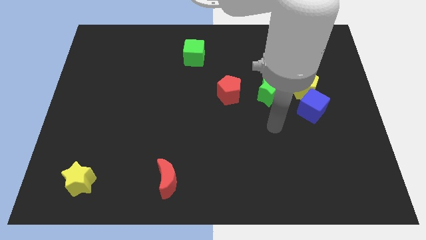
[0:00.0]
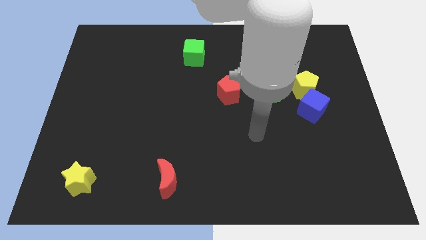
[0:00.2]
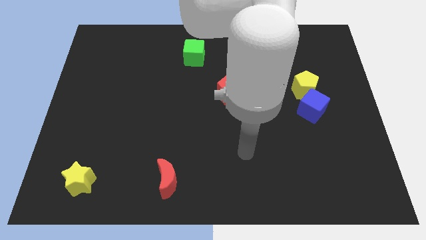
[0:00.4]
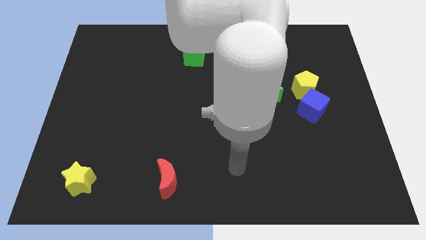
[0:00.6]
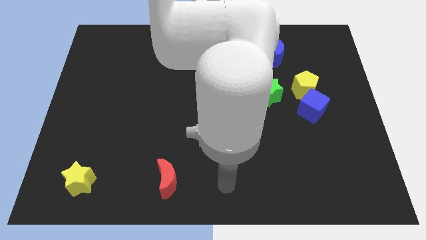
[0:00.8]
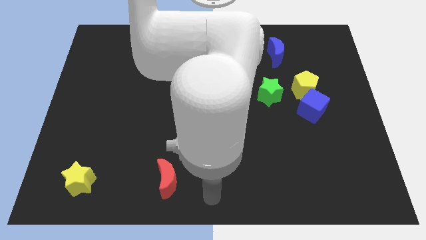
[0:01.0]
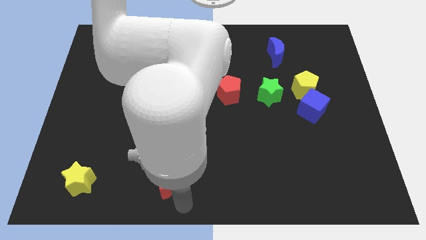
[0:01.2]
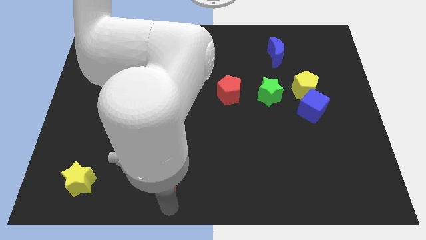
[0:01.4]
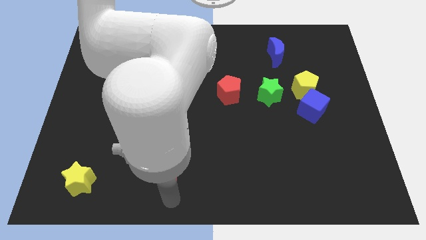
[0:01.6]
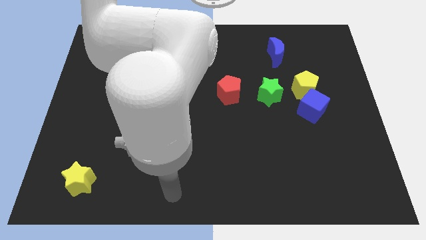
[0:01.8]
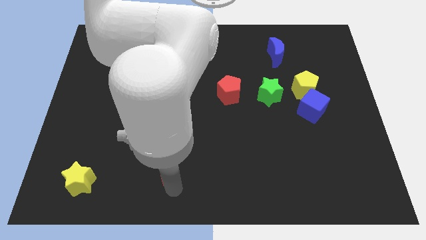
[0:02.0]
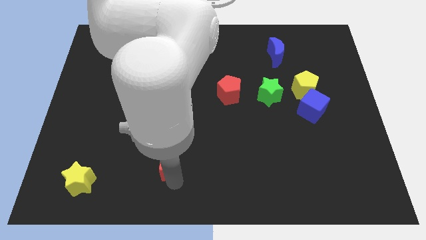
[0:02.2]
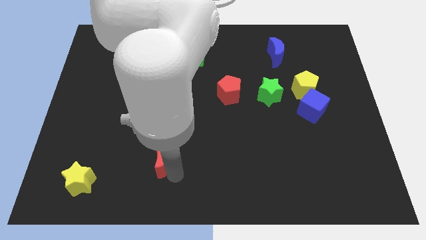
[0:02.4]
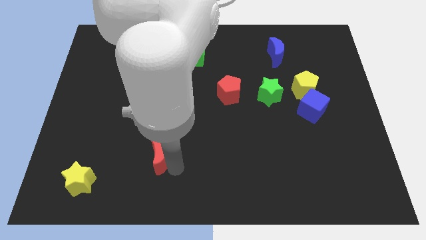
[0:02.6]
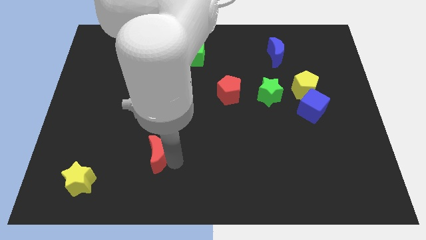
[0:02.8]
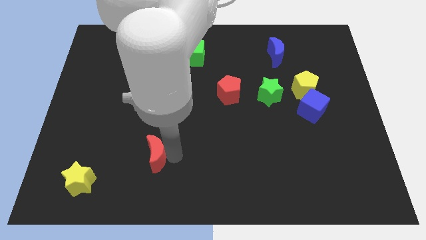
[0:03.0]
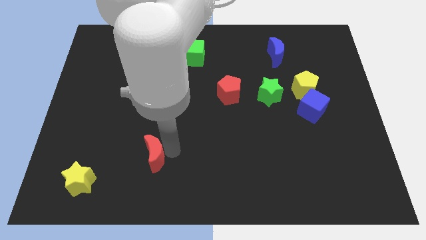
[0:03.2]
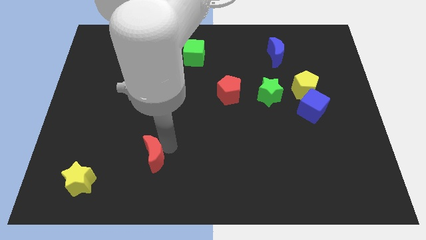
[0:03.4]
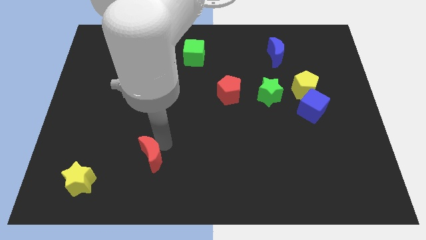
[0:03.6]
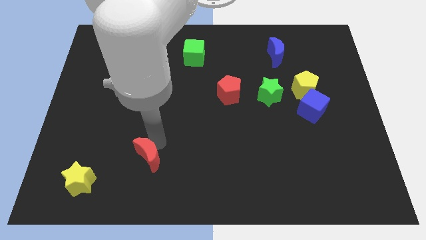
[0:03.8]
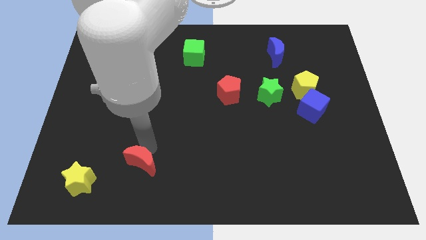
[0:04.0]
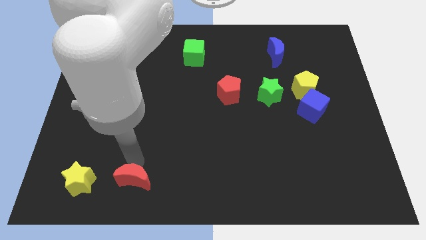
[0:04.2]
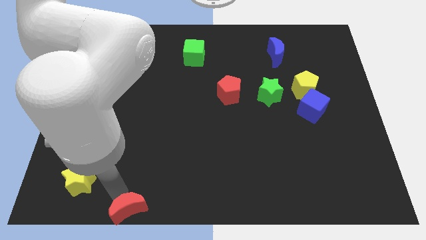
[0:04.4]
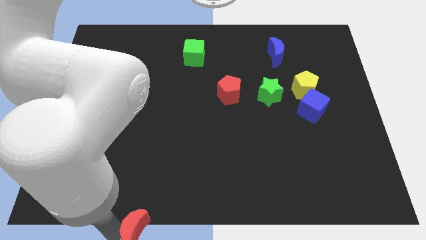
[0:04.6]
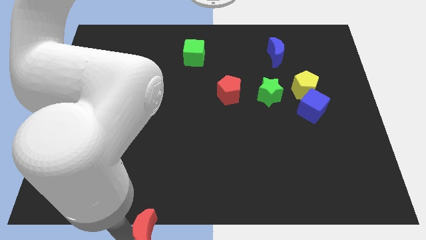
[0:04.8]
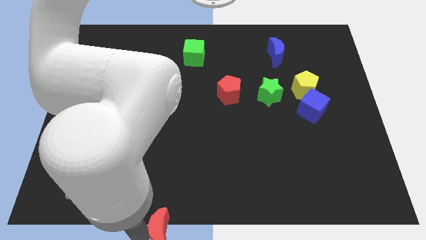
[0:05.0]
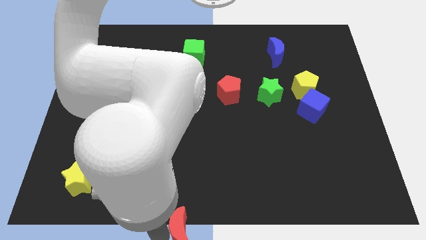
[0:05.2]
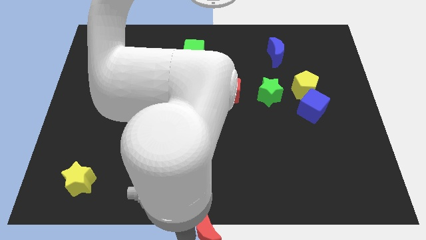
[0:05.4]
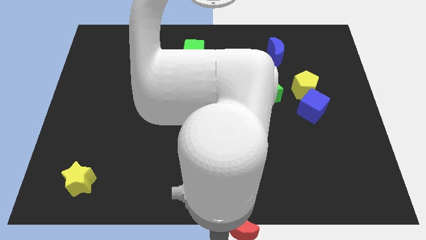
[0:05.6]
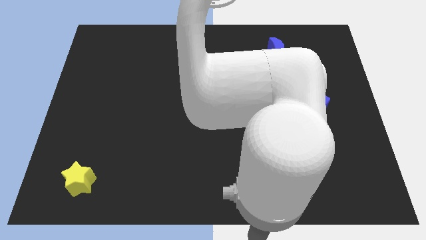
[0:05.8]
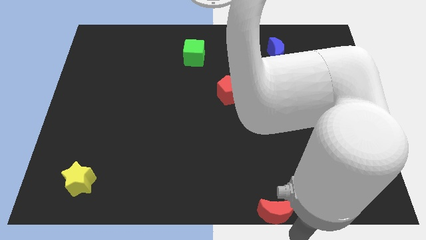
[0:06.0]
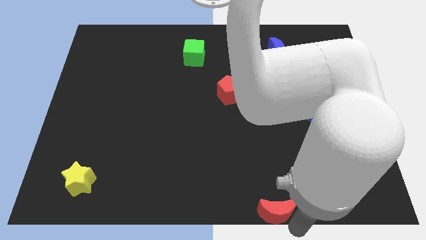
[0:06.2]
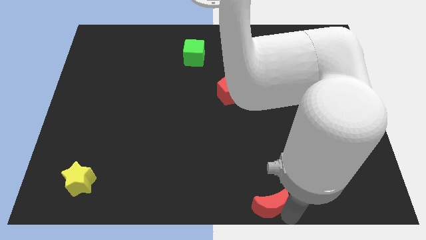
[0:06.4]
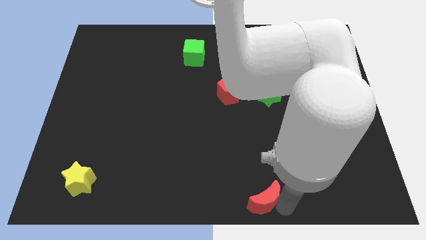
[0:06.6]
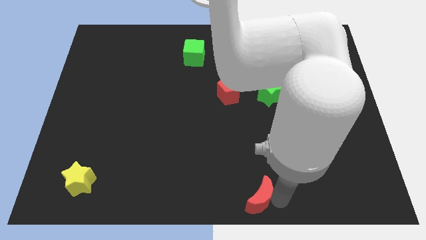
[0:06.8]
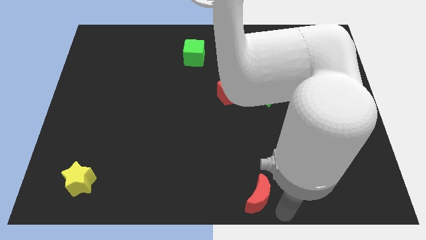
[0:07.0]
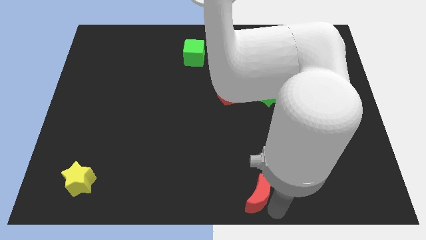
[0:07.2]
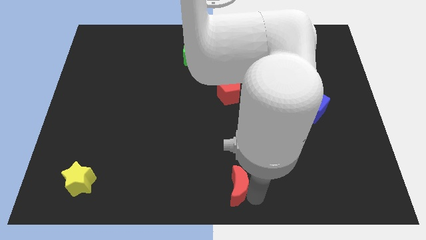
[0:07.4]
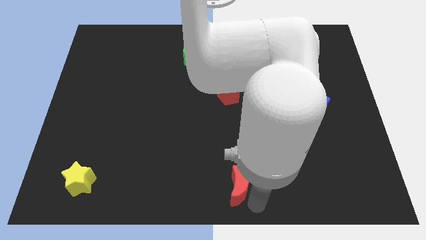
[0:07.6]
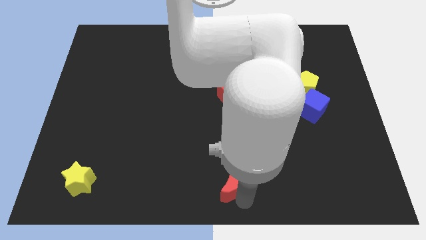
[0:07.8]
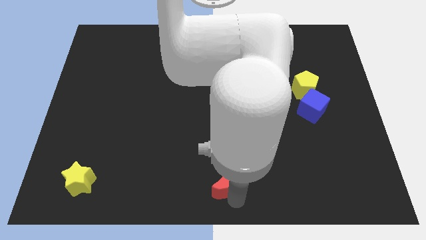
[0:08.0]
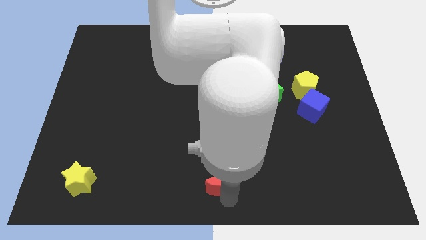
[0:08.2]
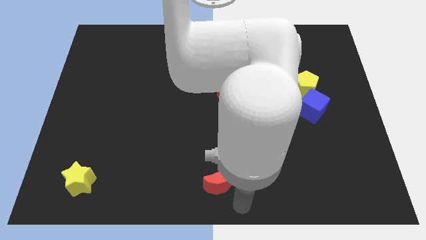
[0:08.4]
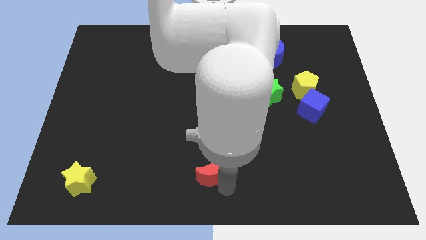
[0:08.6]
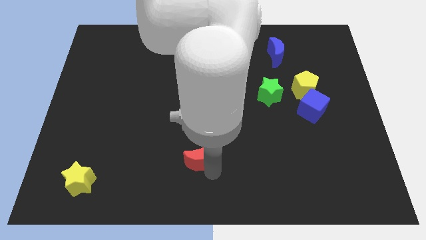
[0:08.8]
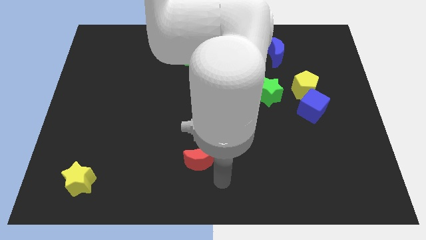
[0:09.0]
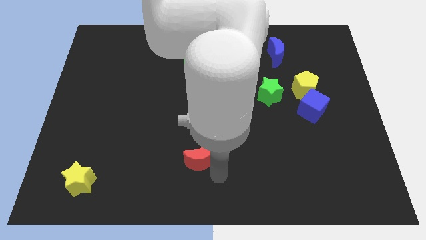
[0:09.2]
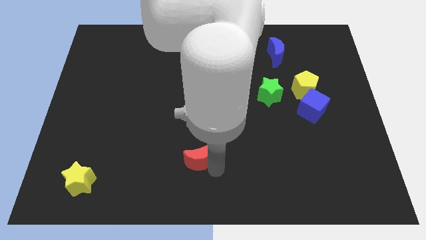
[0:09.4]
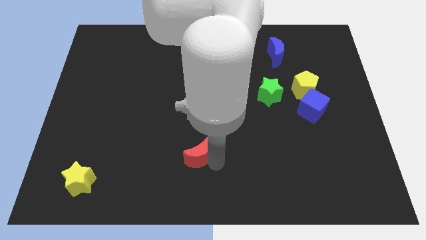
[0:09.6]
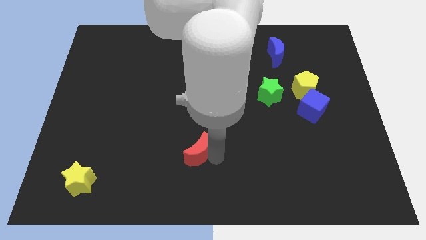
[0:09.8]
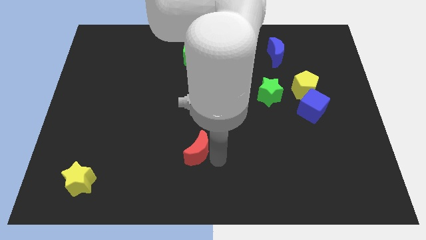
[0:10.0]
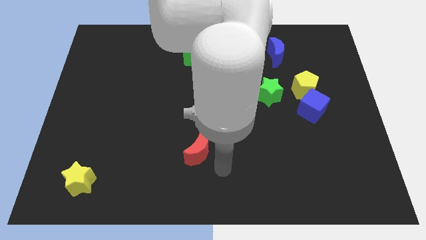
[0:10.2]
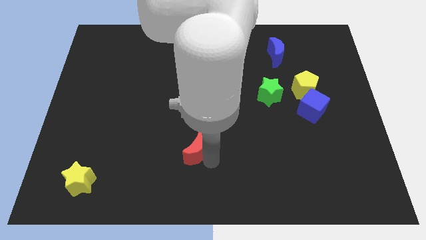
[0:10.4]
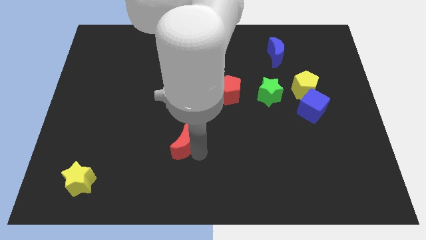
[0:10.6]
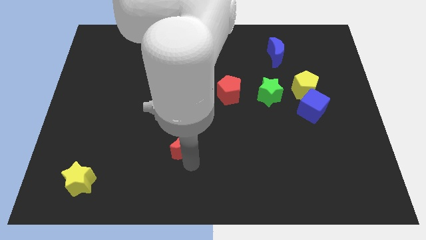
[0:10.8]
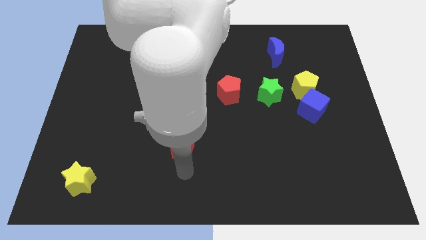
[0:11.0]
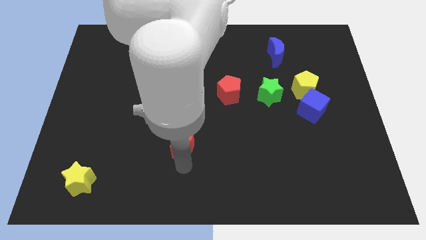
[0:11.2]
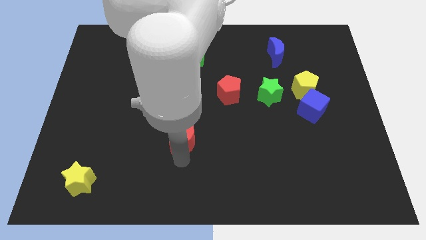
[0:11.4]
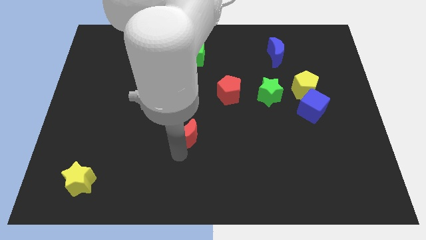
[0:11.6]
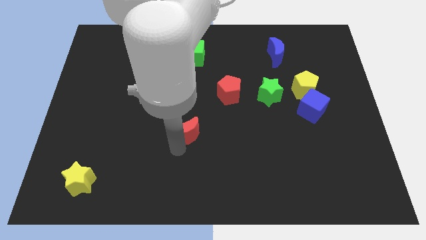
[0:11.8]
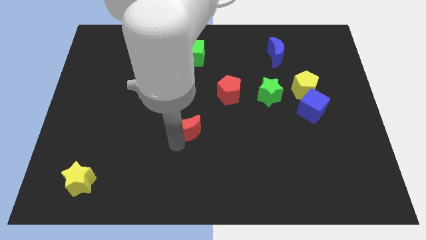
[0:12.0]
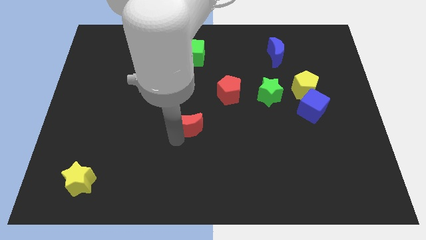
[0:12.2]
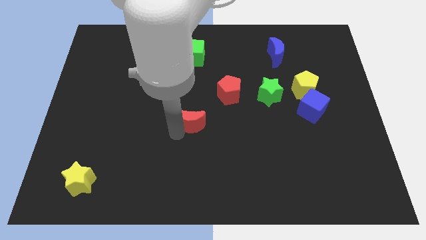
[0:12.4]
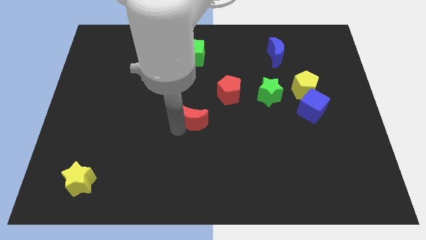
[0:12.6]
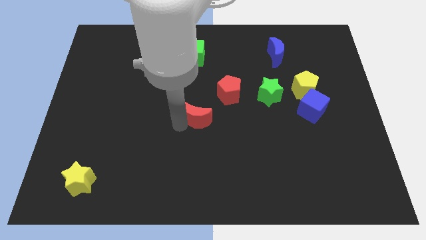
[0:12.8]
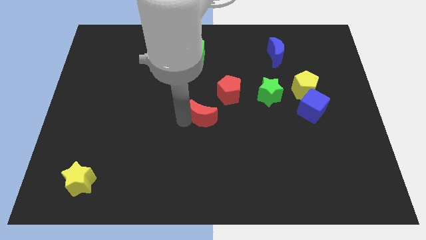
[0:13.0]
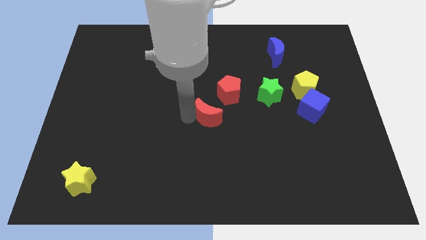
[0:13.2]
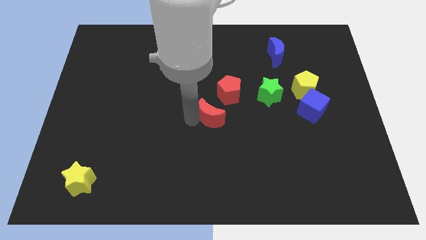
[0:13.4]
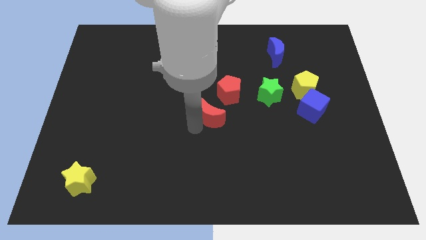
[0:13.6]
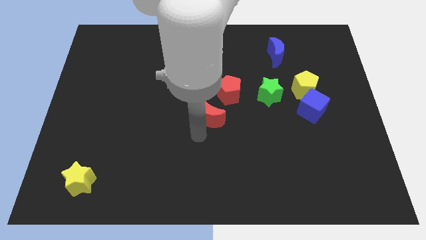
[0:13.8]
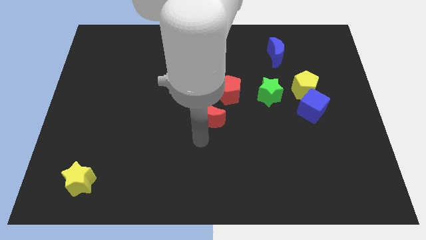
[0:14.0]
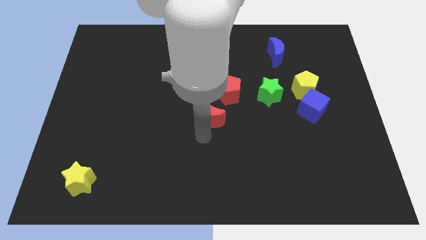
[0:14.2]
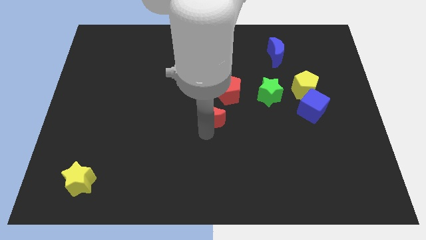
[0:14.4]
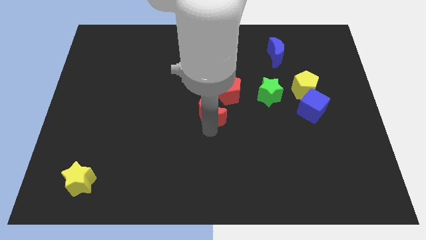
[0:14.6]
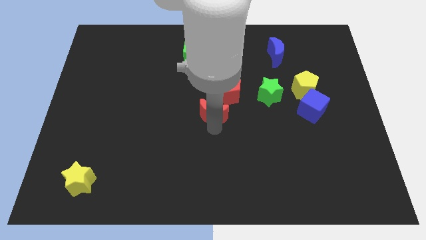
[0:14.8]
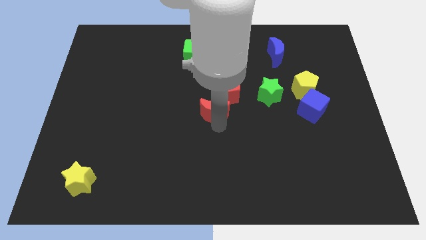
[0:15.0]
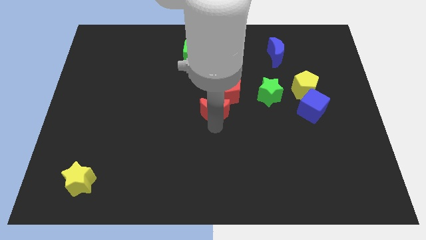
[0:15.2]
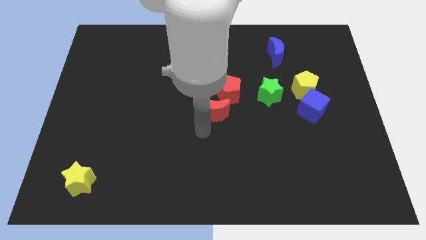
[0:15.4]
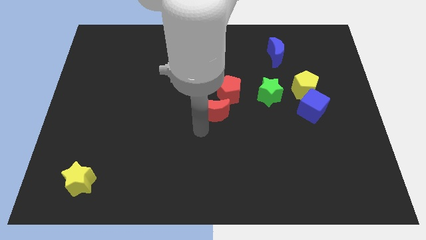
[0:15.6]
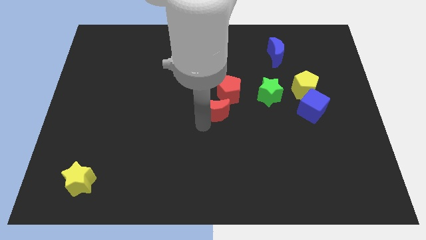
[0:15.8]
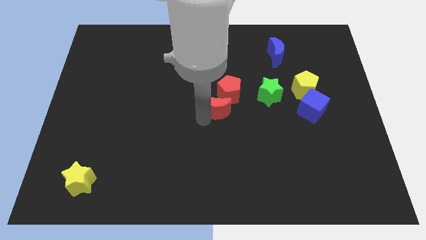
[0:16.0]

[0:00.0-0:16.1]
slide the red moon towards the red pentagon

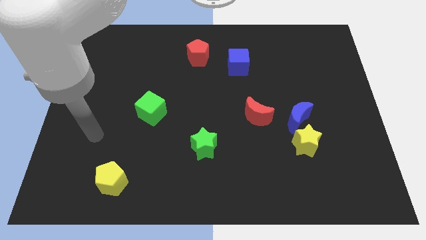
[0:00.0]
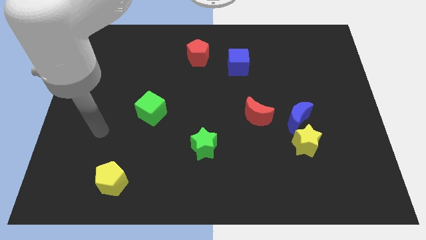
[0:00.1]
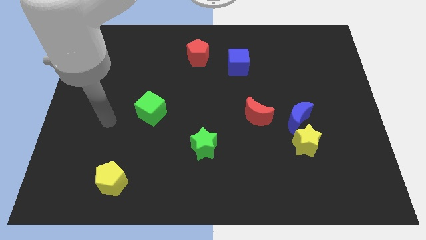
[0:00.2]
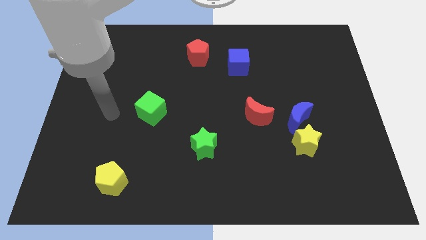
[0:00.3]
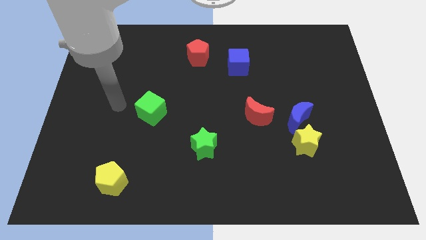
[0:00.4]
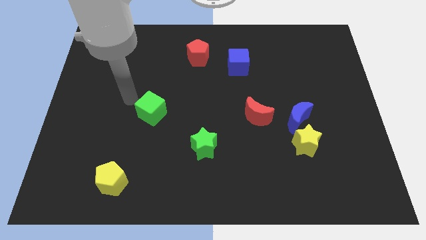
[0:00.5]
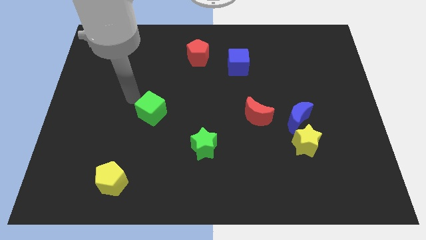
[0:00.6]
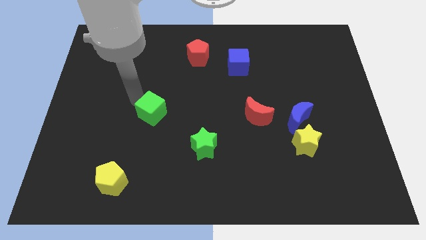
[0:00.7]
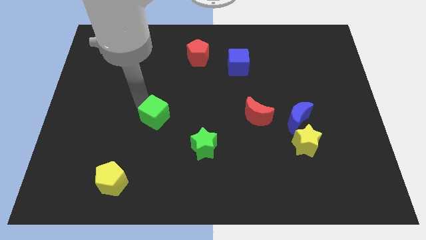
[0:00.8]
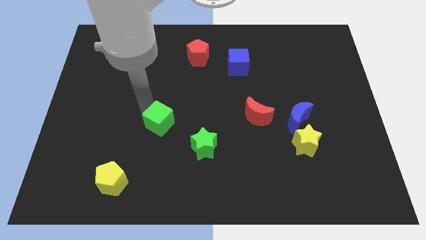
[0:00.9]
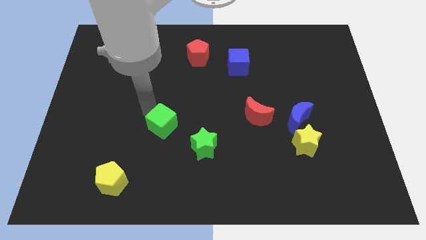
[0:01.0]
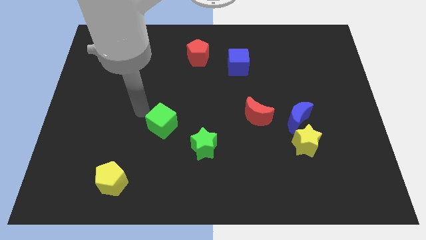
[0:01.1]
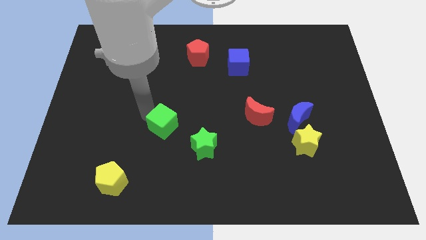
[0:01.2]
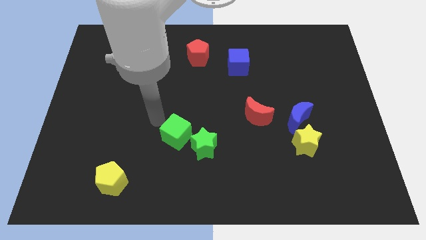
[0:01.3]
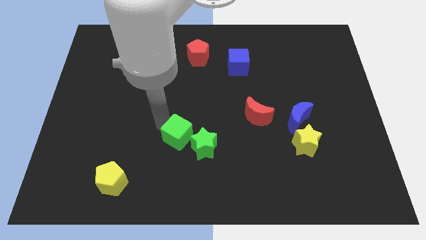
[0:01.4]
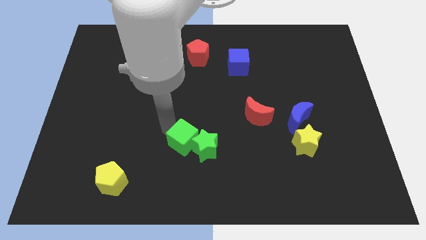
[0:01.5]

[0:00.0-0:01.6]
put the green cube close to the green star
